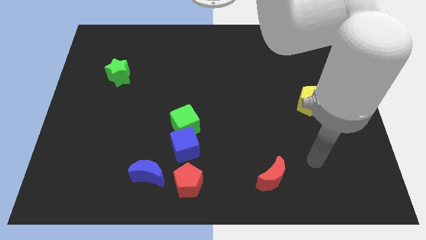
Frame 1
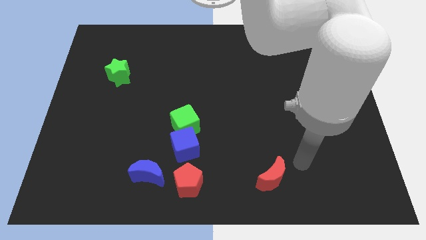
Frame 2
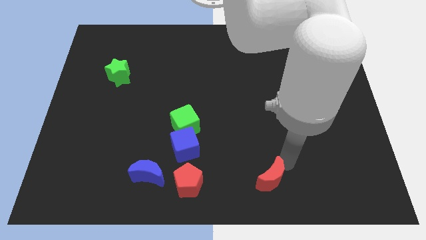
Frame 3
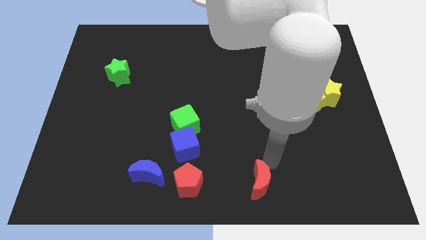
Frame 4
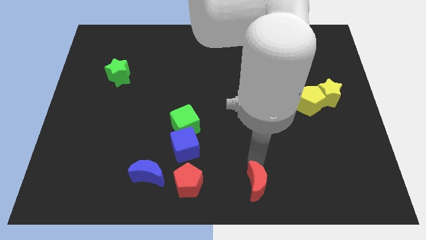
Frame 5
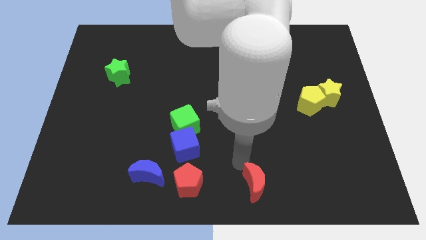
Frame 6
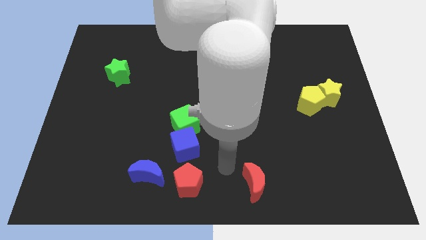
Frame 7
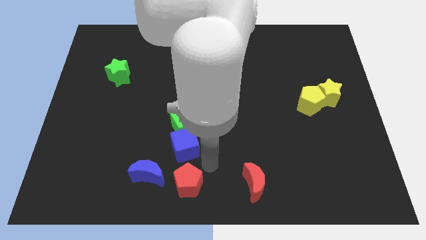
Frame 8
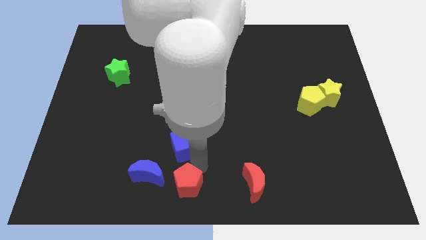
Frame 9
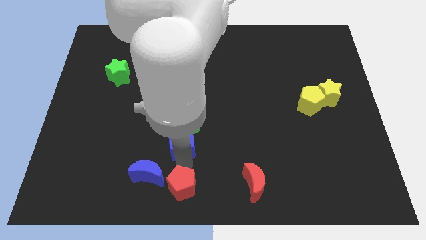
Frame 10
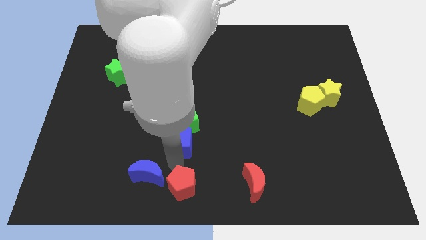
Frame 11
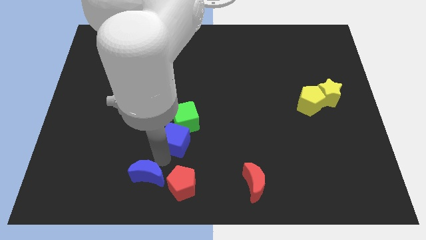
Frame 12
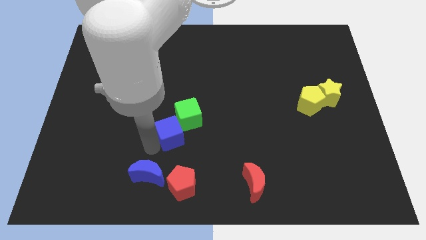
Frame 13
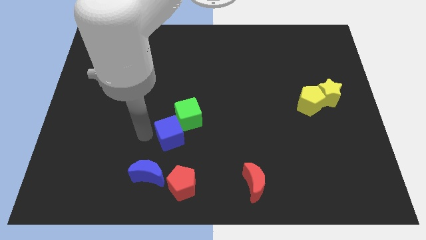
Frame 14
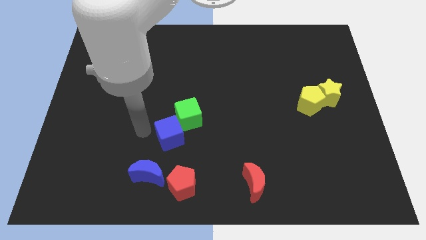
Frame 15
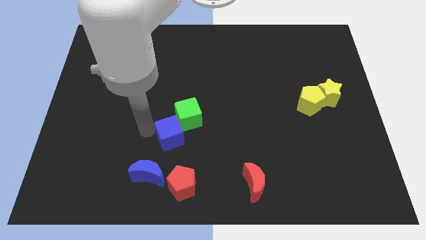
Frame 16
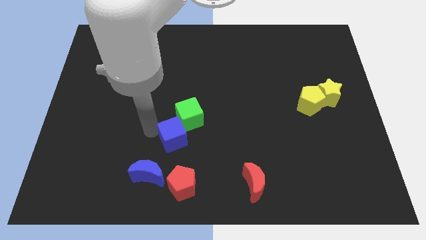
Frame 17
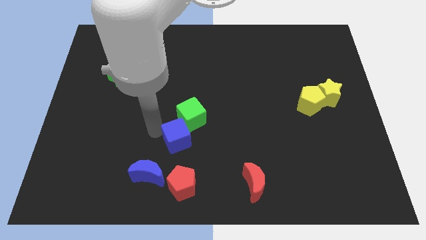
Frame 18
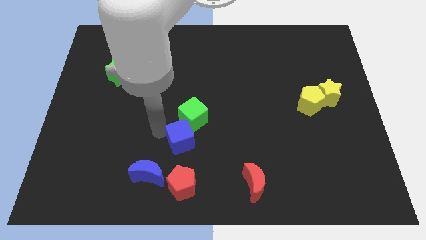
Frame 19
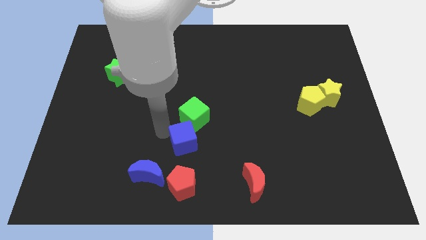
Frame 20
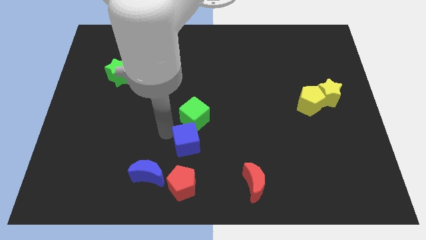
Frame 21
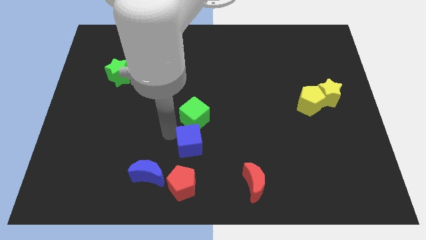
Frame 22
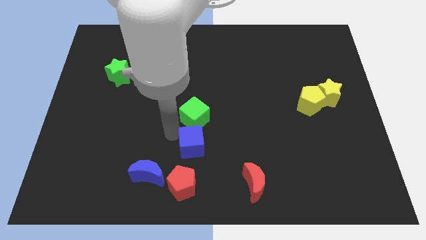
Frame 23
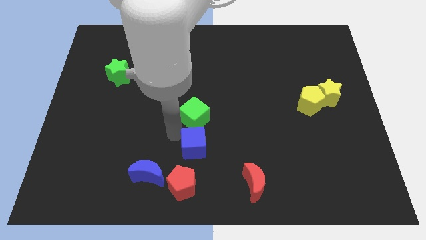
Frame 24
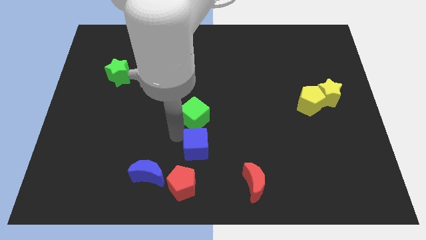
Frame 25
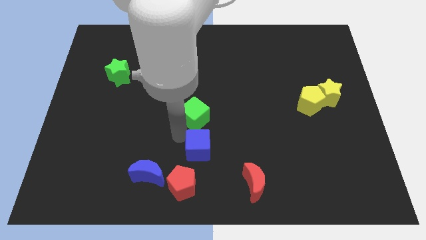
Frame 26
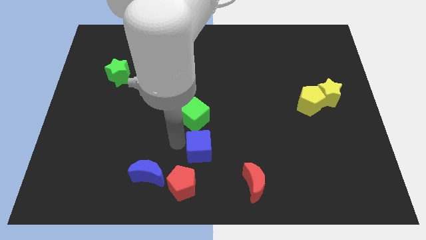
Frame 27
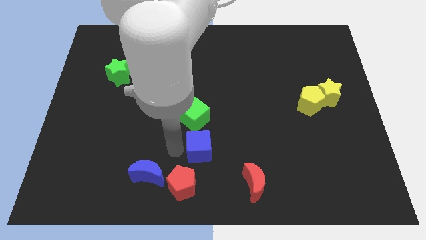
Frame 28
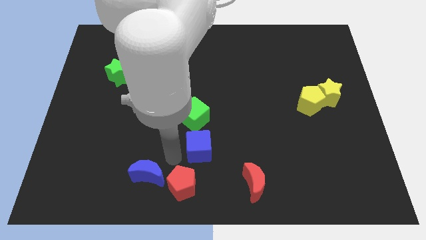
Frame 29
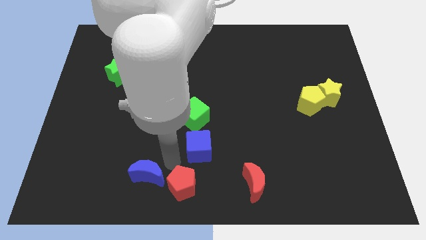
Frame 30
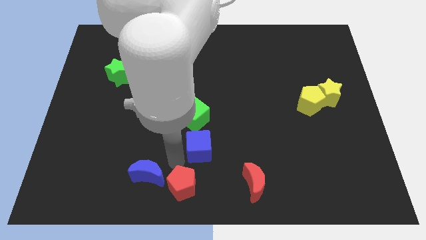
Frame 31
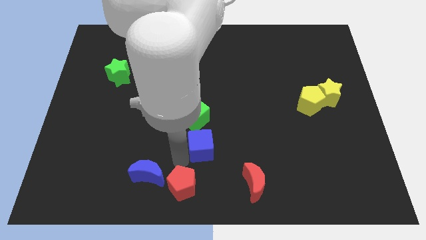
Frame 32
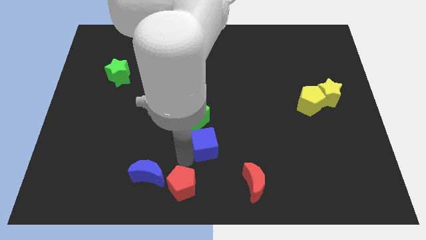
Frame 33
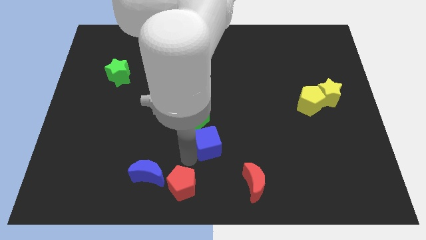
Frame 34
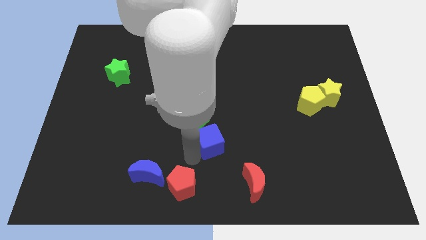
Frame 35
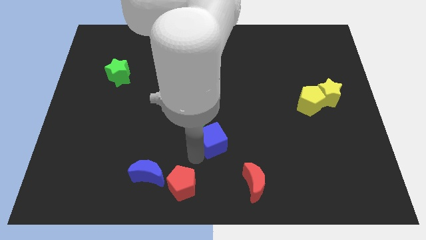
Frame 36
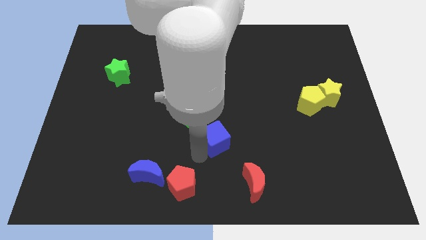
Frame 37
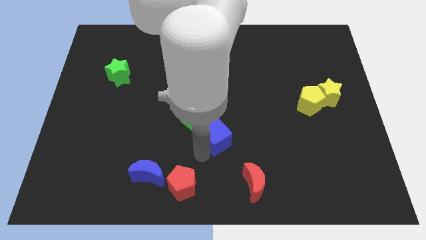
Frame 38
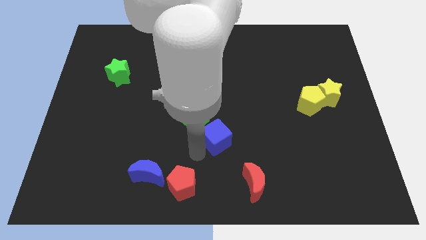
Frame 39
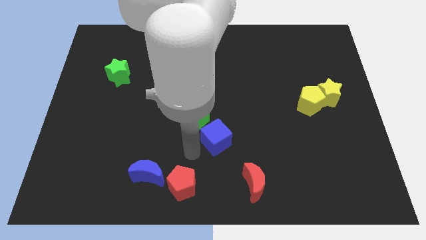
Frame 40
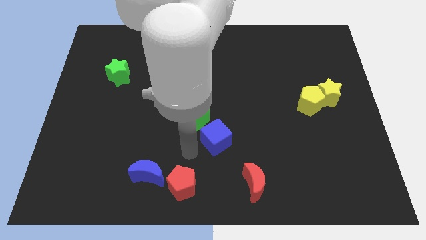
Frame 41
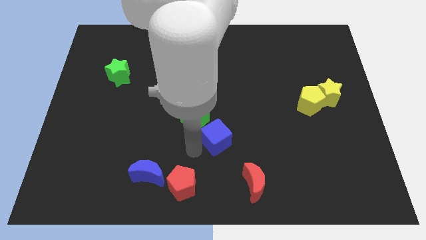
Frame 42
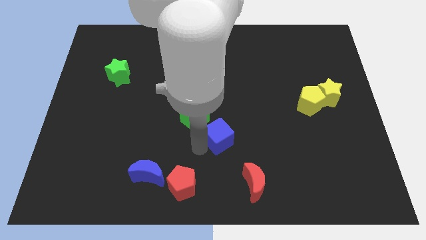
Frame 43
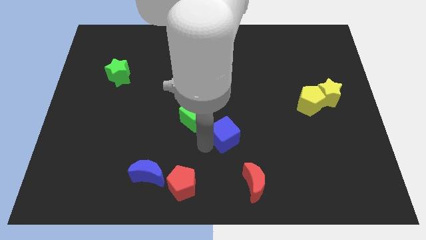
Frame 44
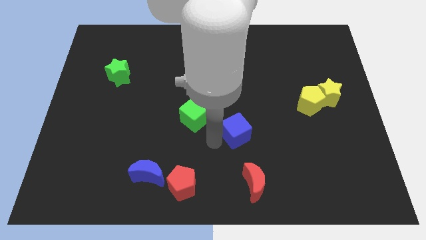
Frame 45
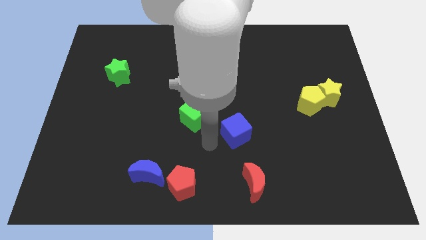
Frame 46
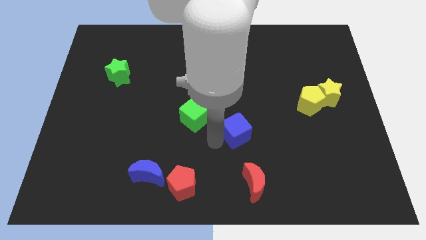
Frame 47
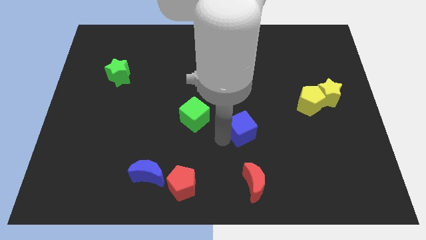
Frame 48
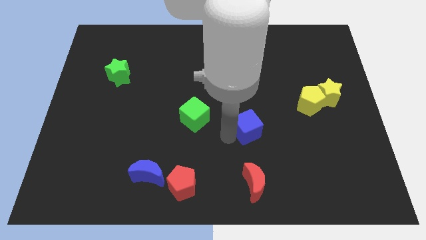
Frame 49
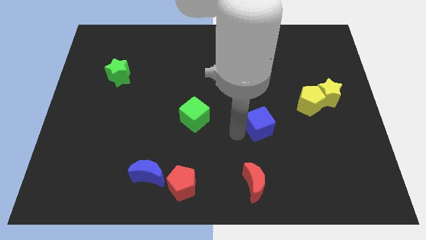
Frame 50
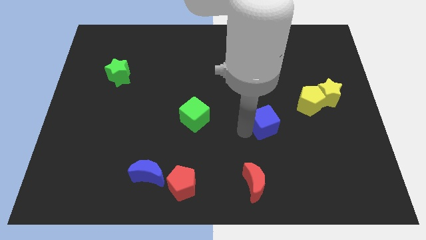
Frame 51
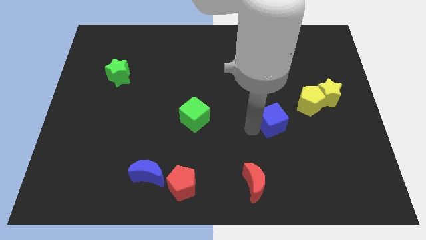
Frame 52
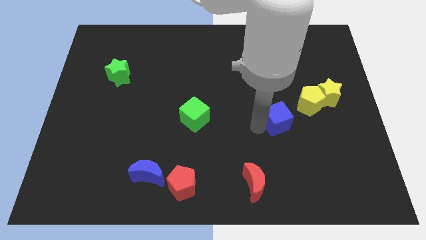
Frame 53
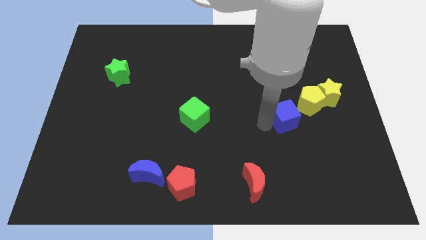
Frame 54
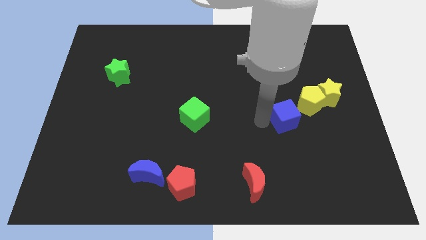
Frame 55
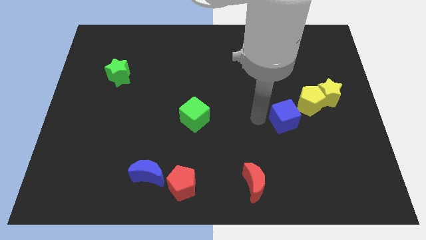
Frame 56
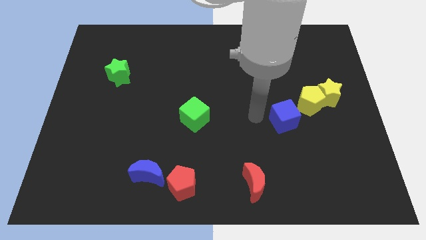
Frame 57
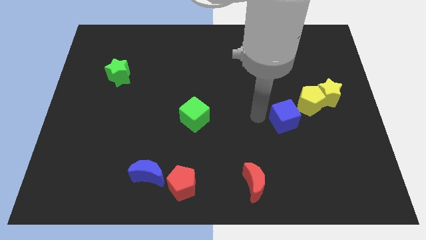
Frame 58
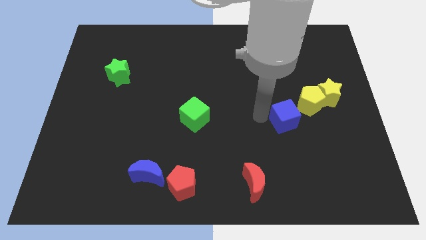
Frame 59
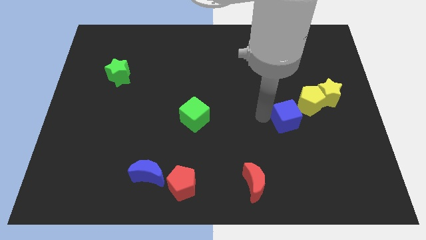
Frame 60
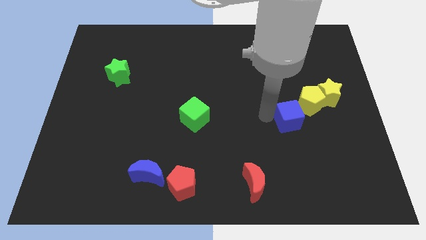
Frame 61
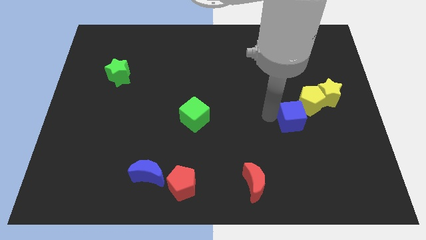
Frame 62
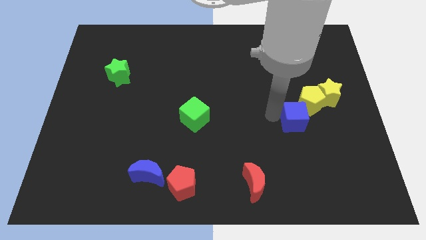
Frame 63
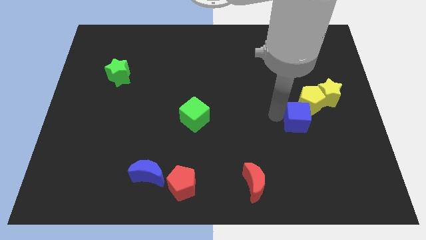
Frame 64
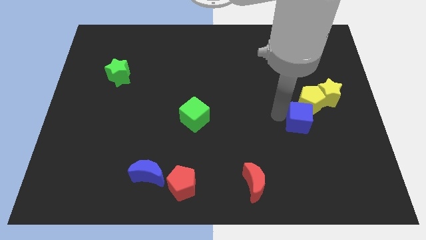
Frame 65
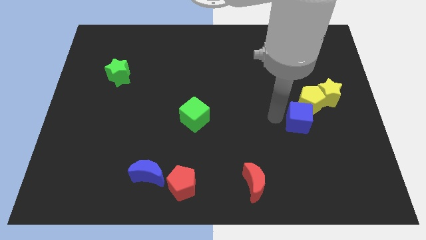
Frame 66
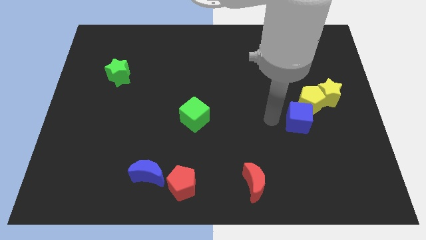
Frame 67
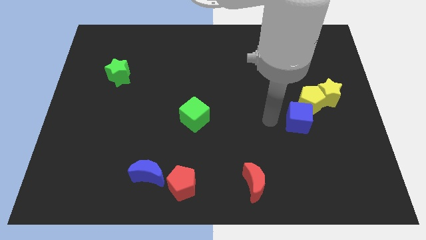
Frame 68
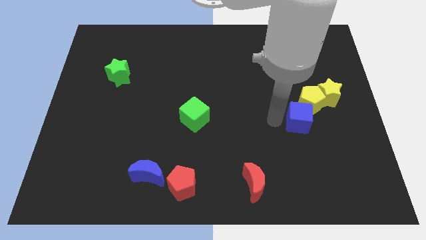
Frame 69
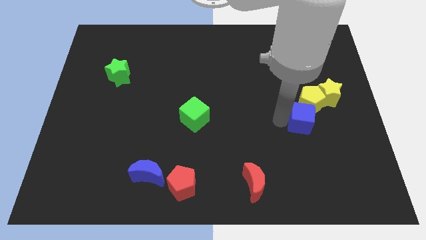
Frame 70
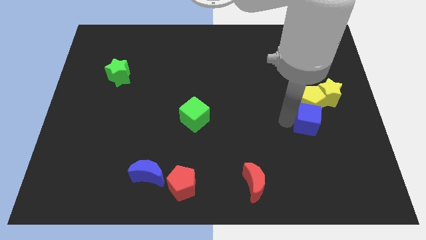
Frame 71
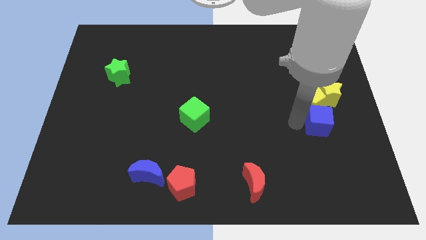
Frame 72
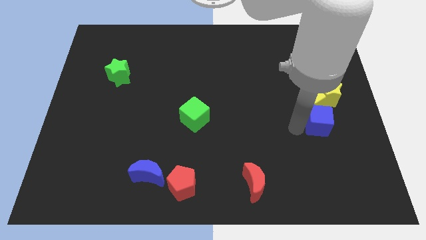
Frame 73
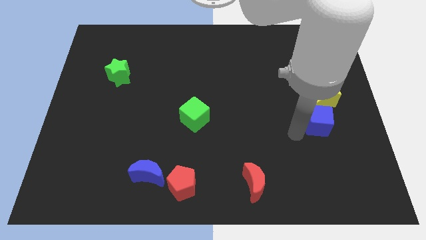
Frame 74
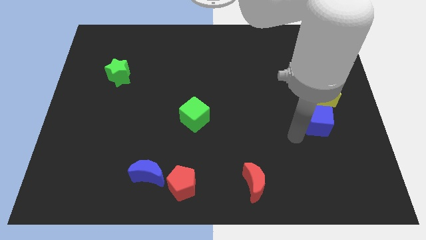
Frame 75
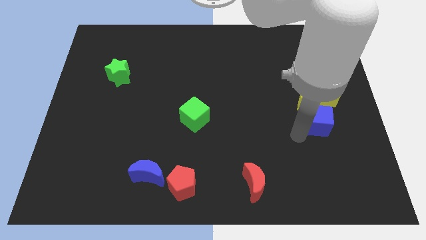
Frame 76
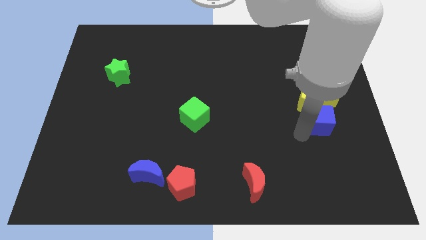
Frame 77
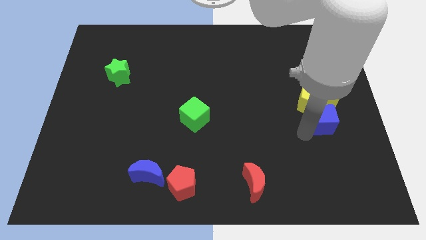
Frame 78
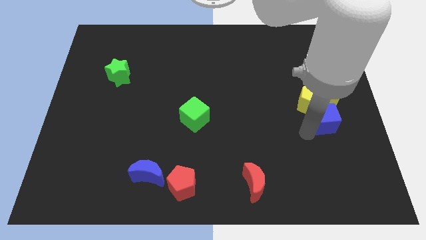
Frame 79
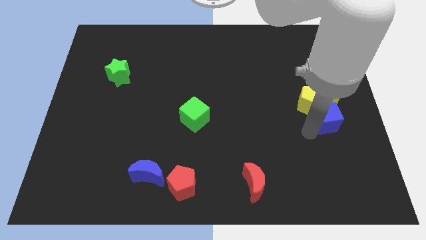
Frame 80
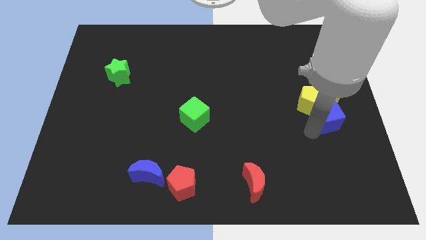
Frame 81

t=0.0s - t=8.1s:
put the blue cube to the right side
